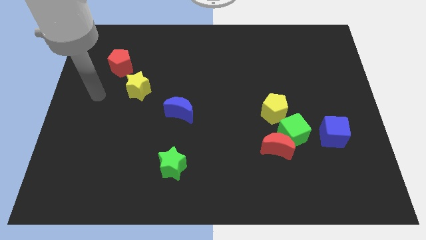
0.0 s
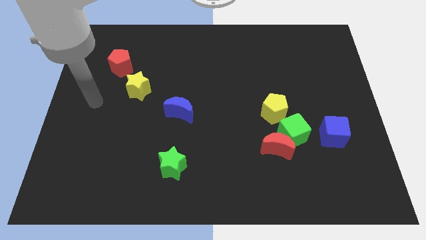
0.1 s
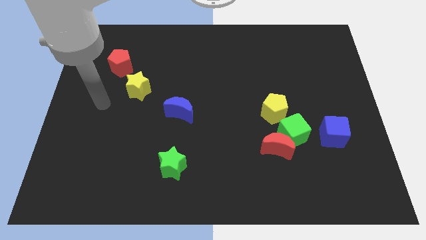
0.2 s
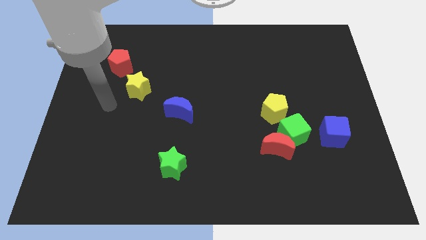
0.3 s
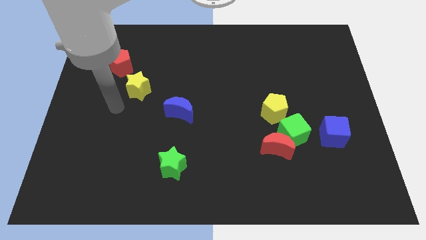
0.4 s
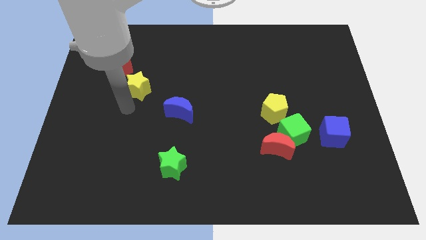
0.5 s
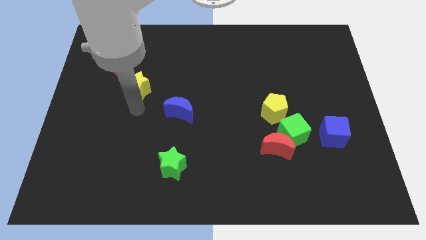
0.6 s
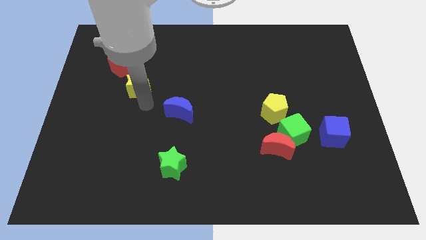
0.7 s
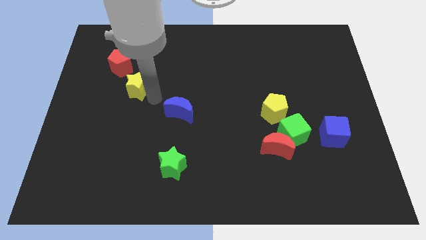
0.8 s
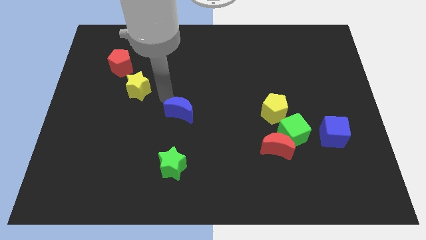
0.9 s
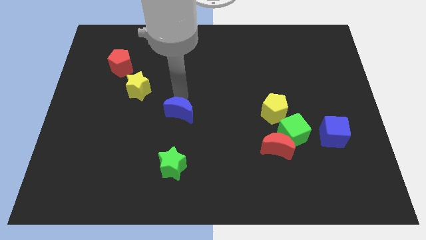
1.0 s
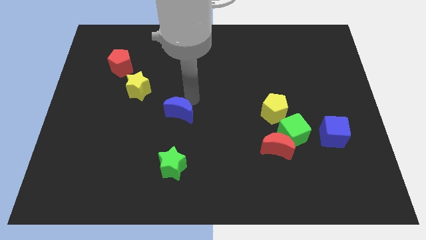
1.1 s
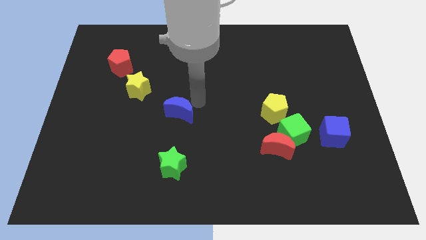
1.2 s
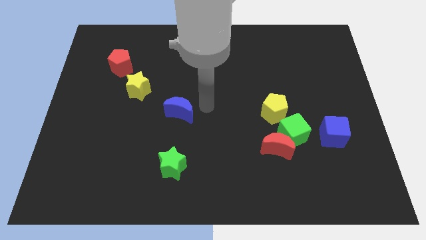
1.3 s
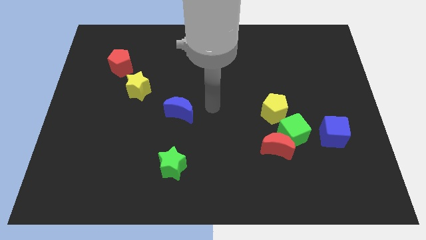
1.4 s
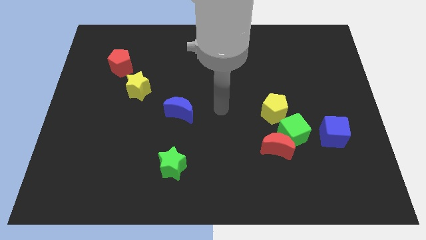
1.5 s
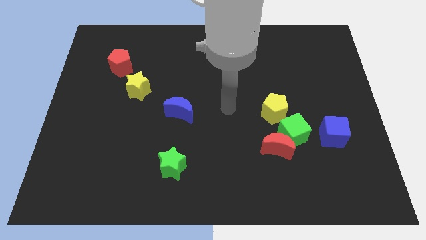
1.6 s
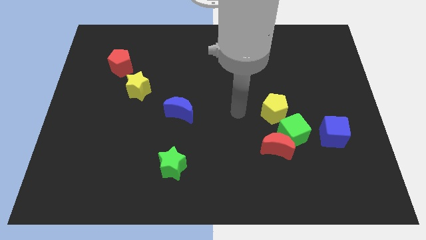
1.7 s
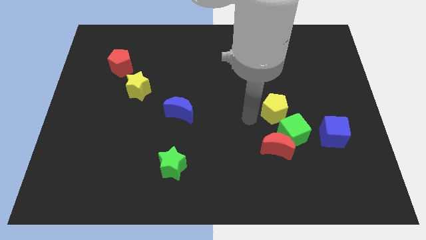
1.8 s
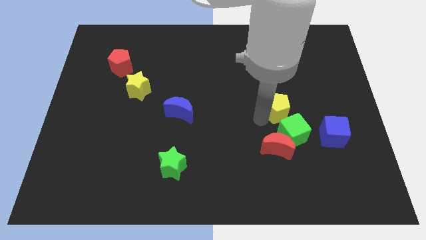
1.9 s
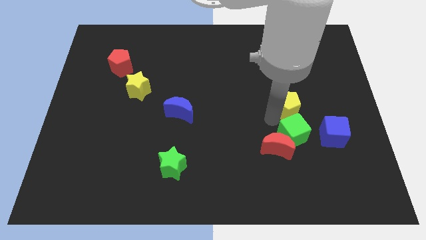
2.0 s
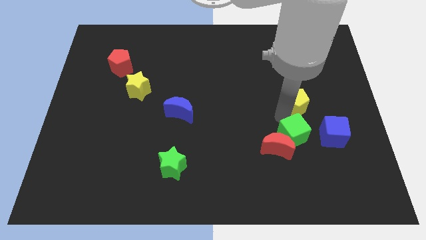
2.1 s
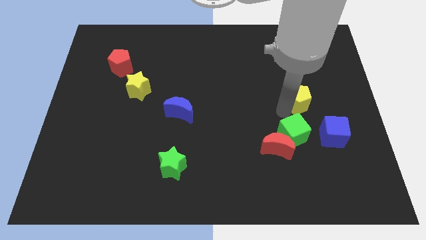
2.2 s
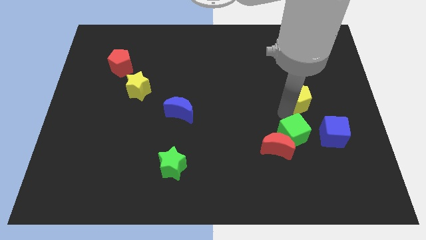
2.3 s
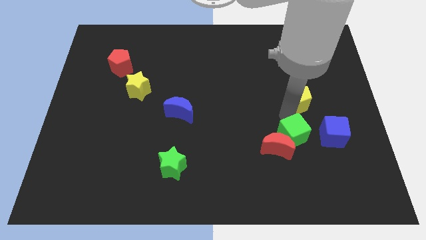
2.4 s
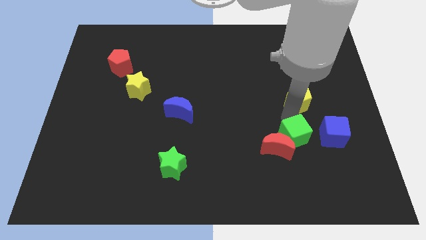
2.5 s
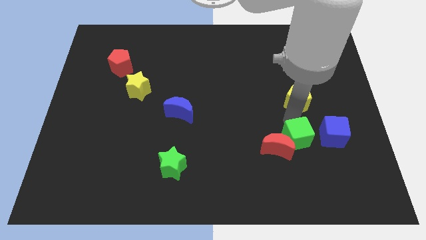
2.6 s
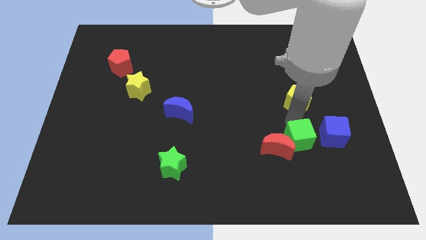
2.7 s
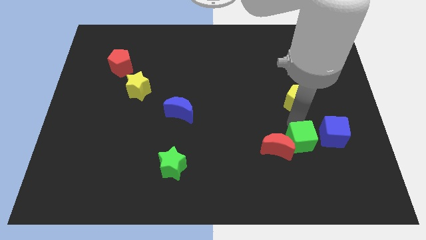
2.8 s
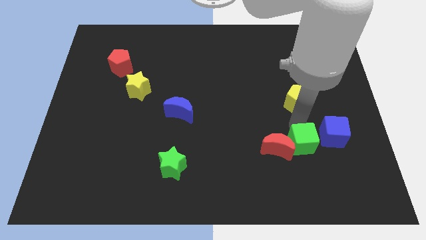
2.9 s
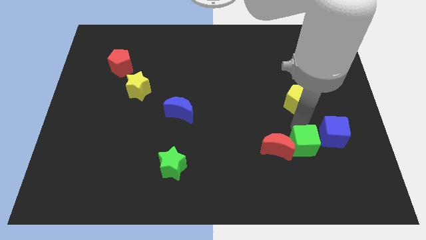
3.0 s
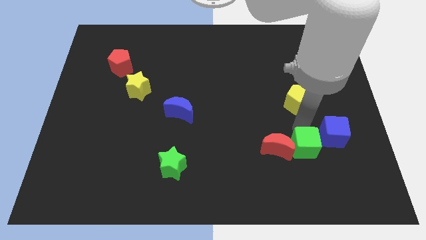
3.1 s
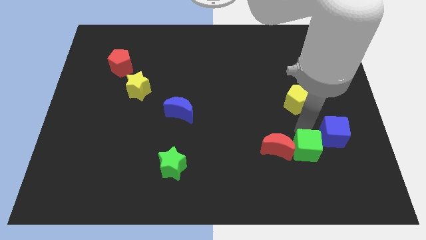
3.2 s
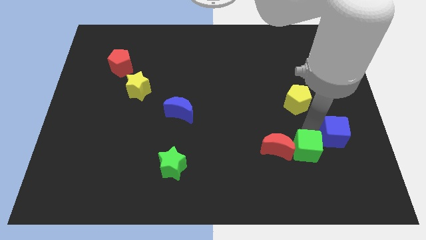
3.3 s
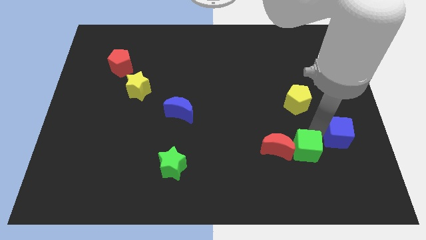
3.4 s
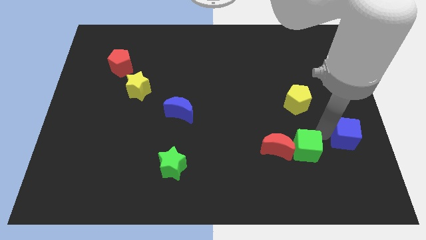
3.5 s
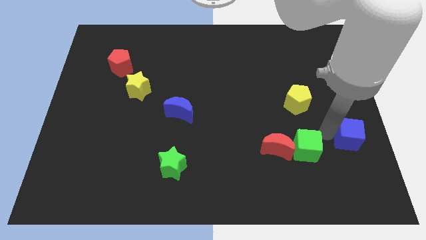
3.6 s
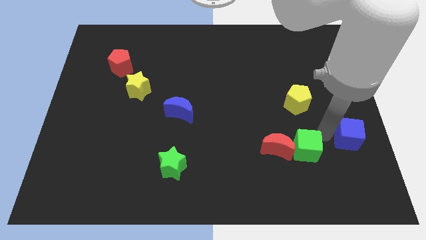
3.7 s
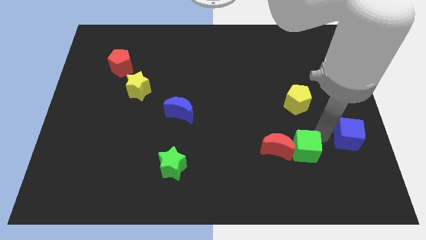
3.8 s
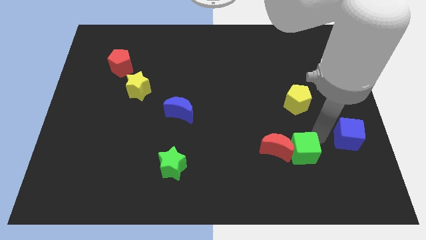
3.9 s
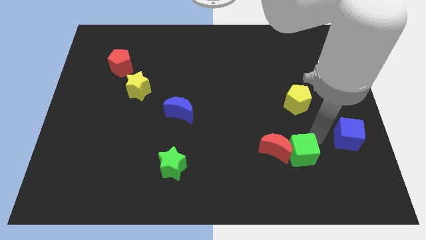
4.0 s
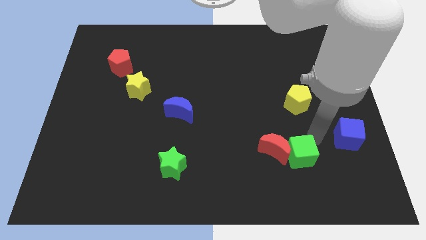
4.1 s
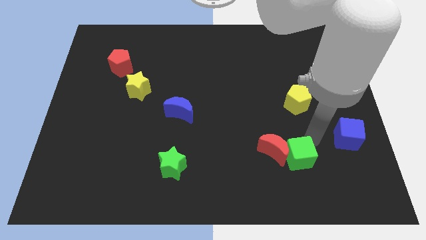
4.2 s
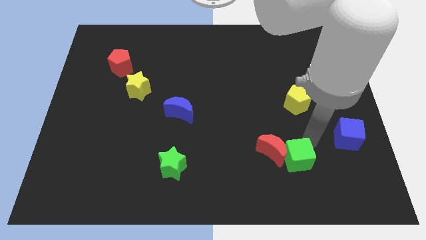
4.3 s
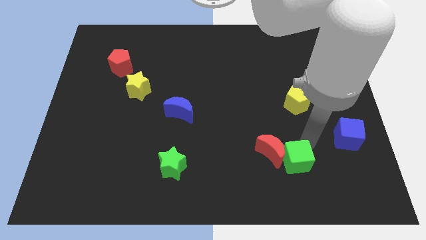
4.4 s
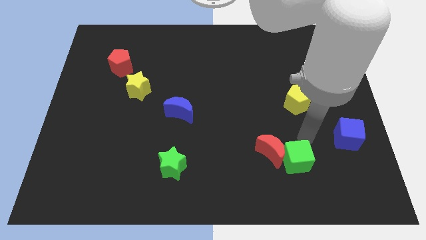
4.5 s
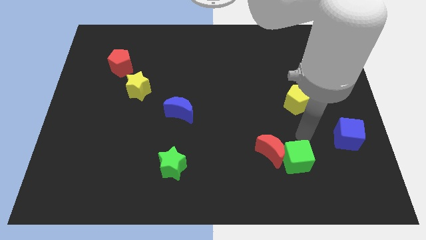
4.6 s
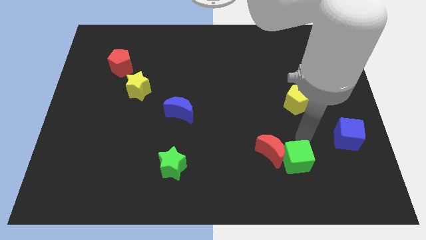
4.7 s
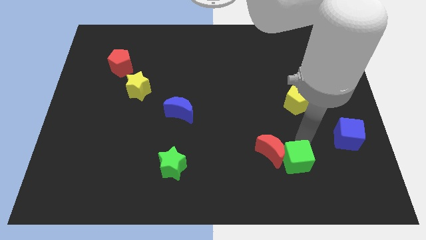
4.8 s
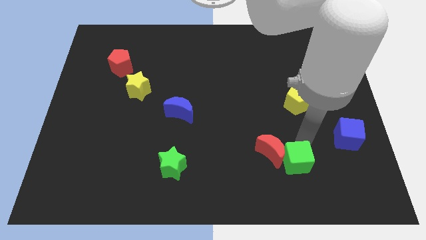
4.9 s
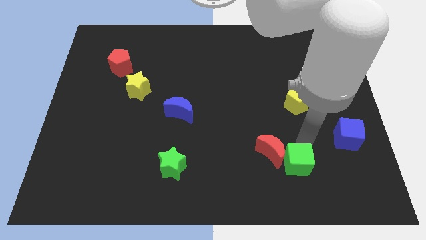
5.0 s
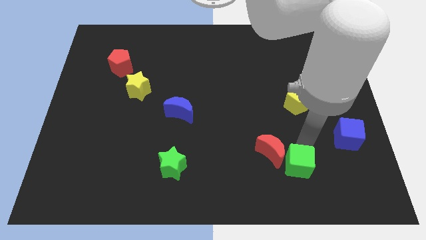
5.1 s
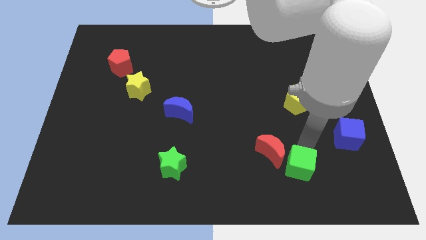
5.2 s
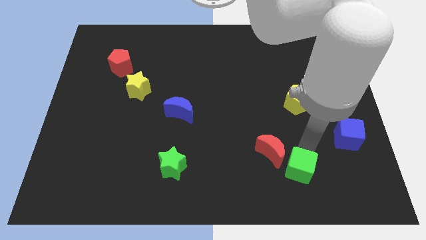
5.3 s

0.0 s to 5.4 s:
move the green cube away from the group of blocks

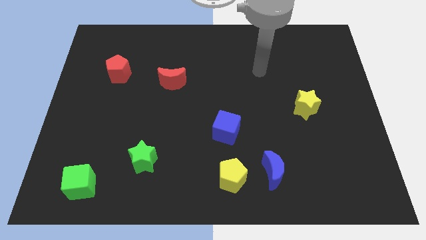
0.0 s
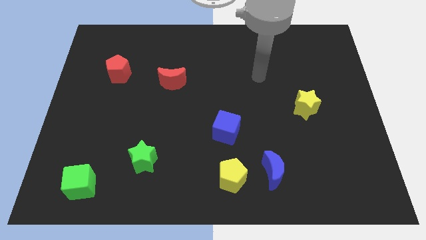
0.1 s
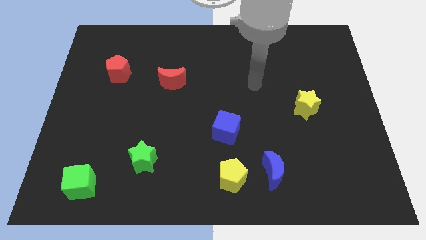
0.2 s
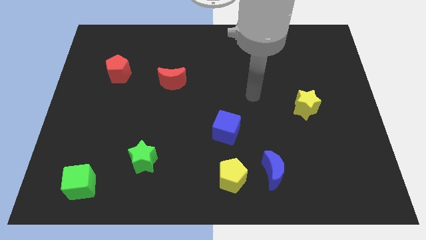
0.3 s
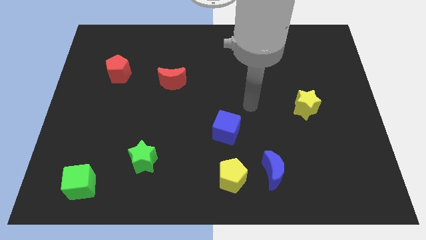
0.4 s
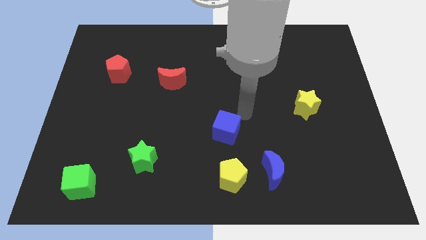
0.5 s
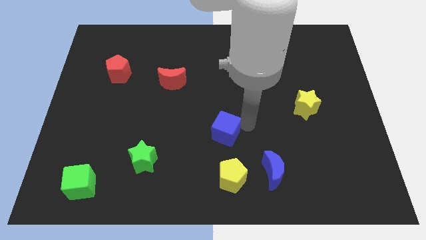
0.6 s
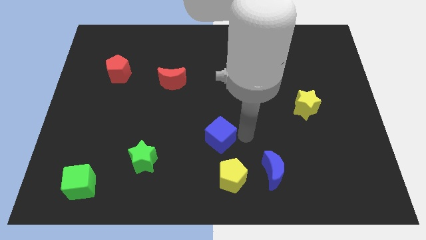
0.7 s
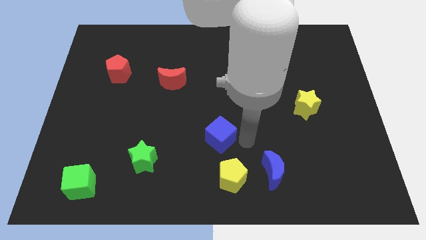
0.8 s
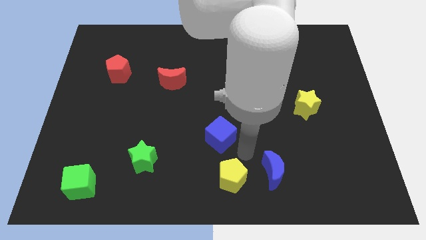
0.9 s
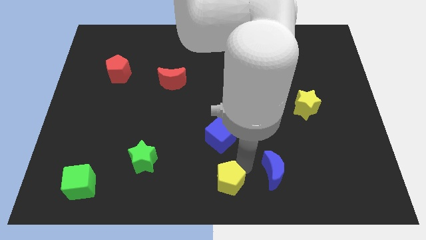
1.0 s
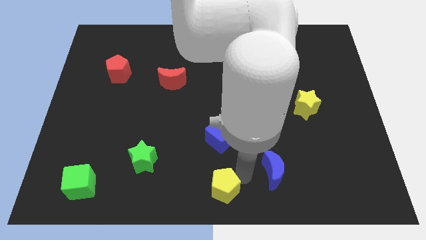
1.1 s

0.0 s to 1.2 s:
separate the blue moon from the yellow pentagon

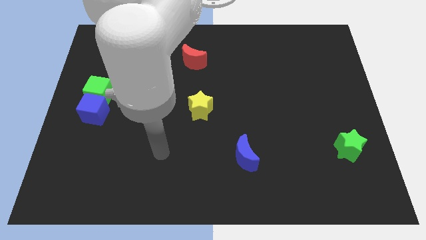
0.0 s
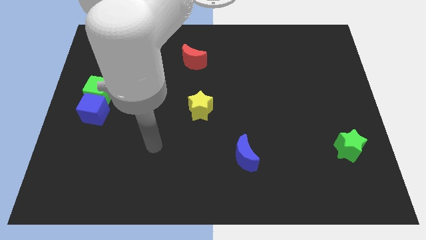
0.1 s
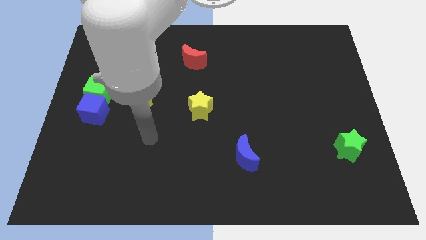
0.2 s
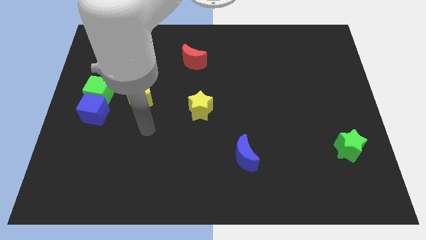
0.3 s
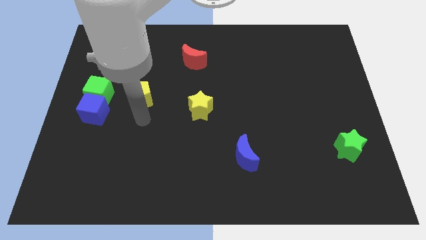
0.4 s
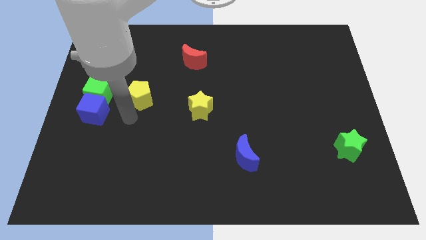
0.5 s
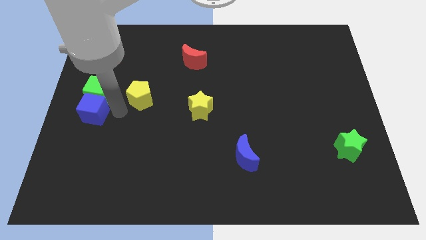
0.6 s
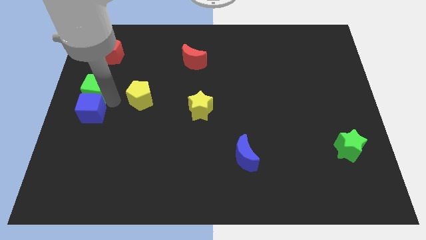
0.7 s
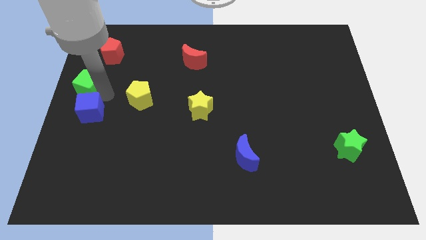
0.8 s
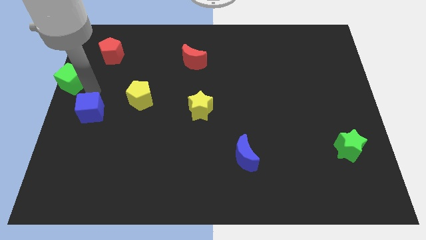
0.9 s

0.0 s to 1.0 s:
separate the blue cube from the green cube

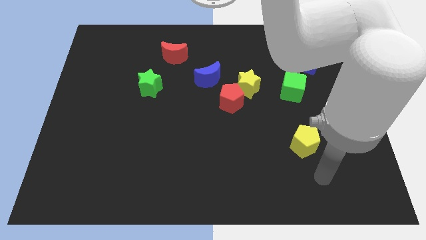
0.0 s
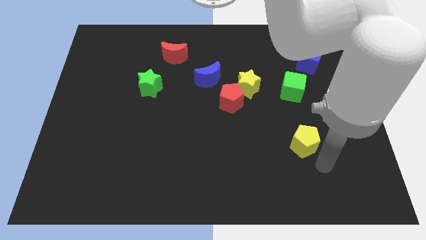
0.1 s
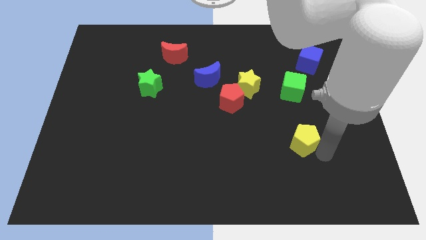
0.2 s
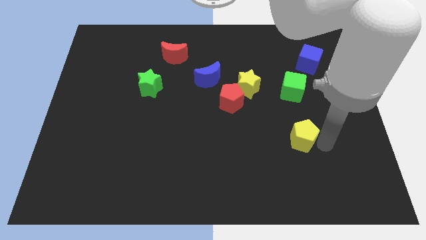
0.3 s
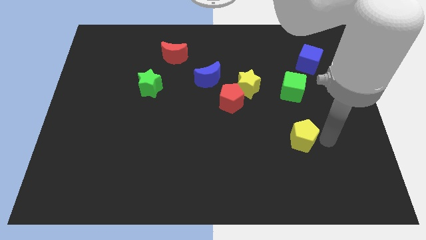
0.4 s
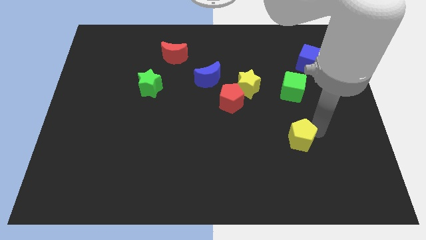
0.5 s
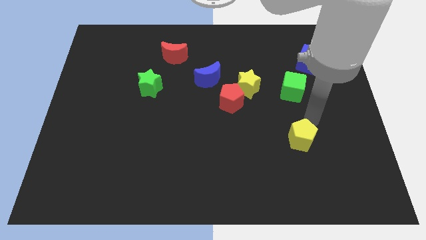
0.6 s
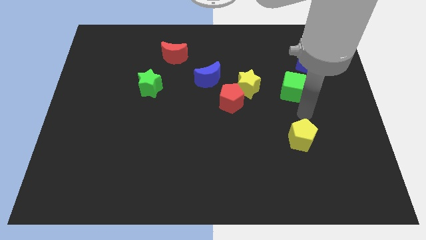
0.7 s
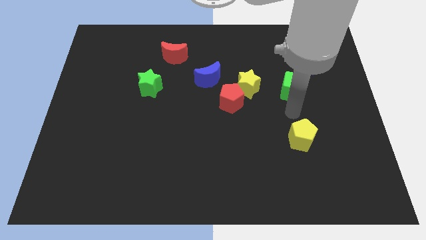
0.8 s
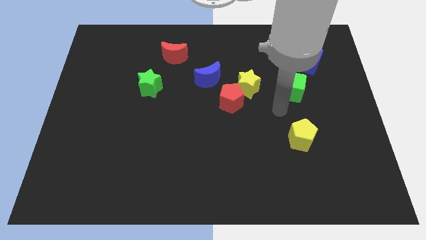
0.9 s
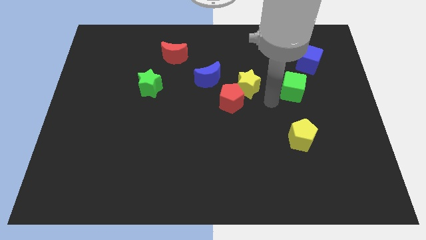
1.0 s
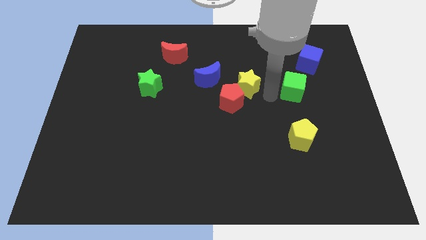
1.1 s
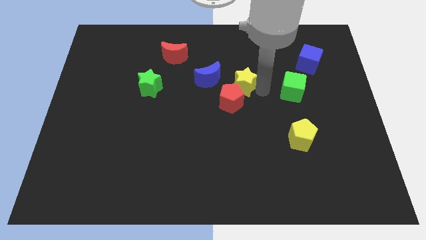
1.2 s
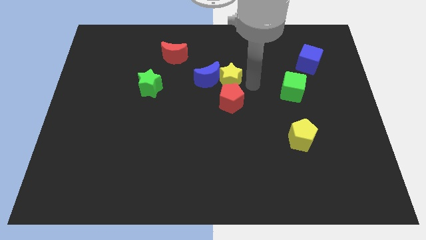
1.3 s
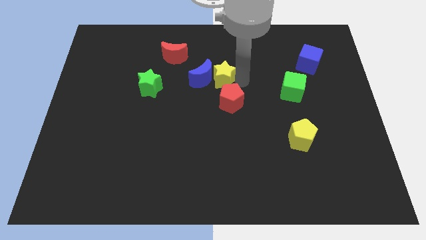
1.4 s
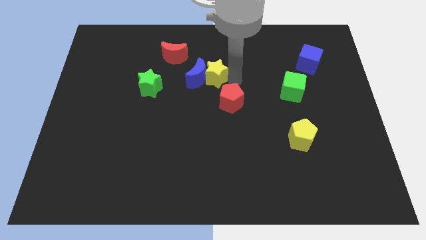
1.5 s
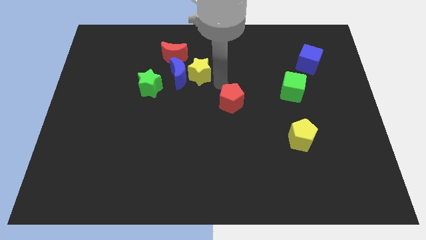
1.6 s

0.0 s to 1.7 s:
separate the red pentagon from the yellow star and blue moon
